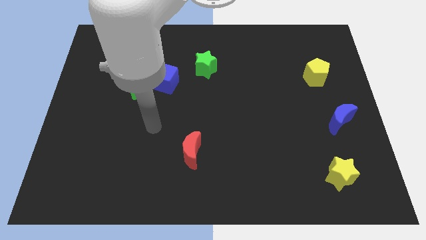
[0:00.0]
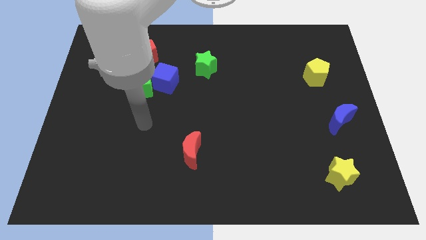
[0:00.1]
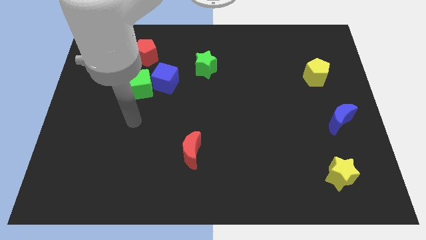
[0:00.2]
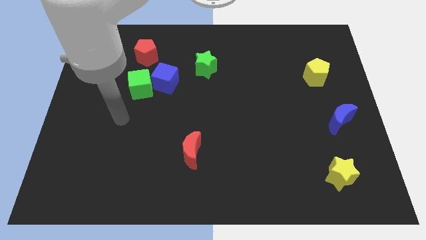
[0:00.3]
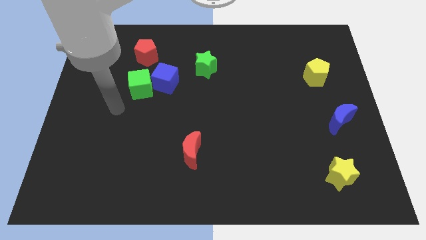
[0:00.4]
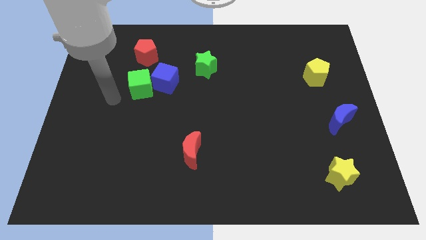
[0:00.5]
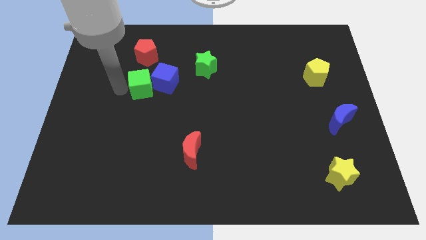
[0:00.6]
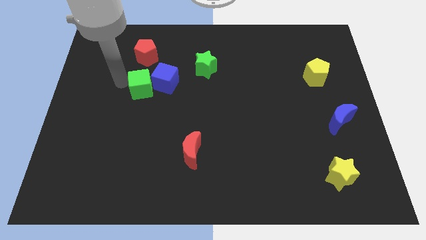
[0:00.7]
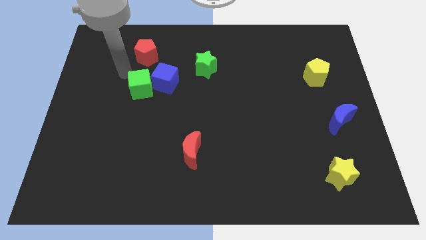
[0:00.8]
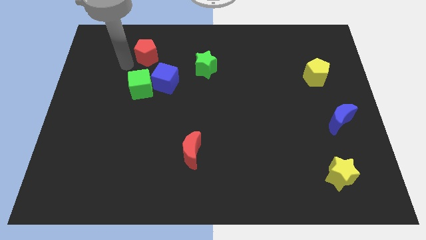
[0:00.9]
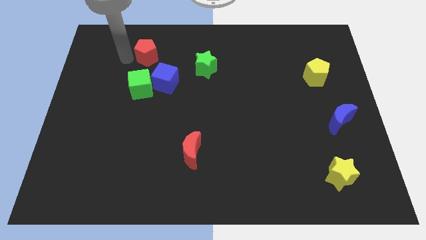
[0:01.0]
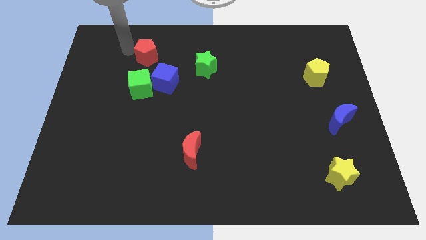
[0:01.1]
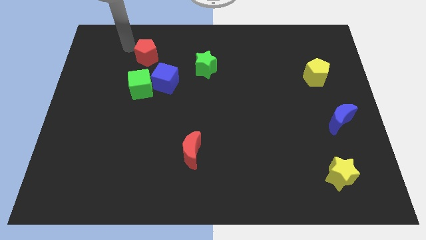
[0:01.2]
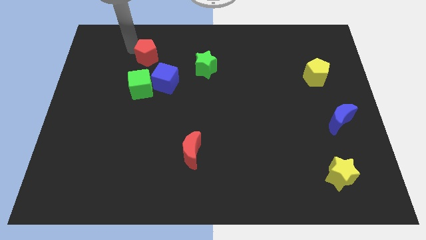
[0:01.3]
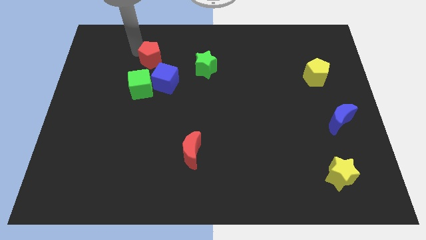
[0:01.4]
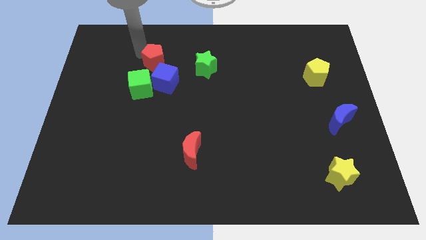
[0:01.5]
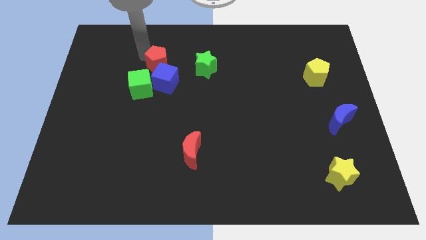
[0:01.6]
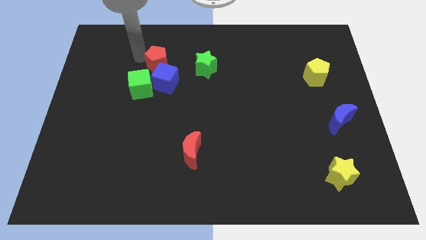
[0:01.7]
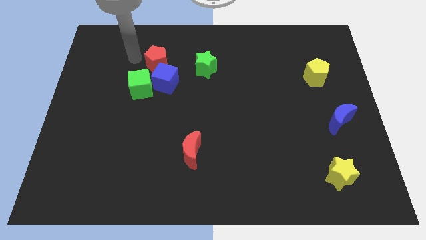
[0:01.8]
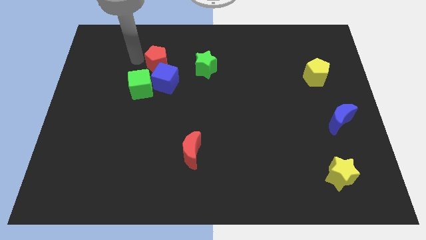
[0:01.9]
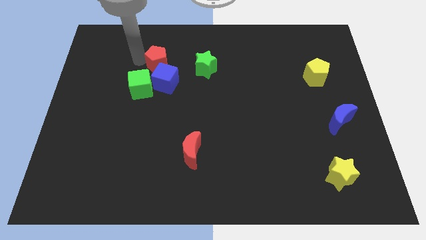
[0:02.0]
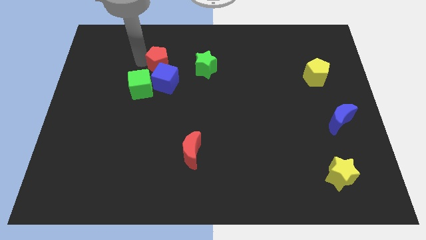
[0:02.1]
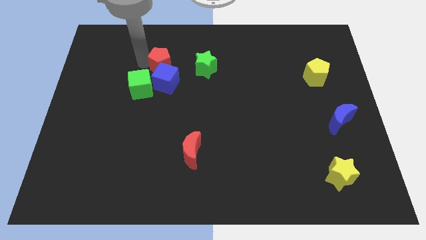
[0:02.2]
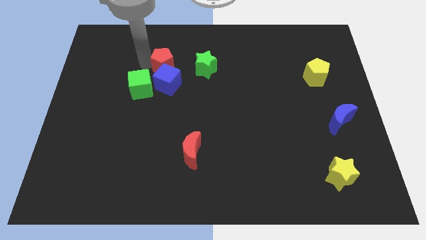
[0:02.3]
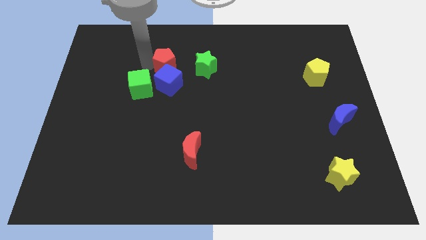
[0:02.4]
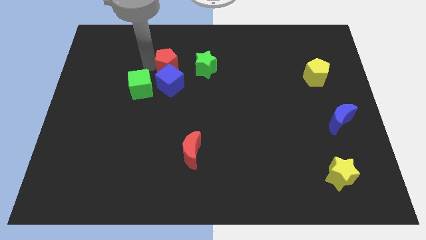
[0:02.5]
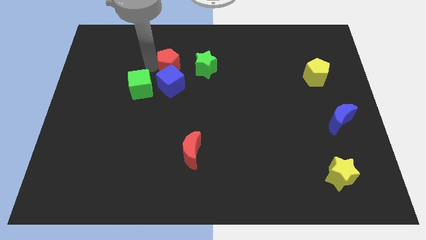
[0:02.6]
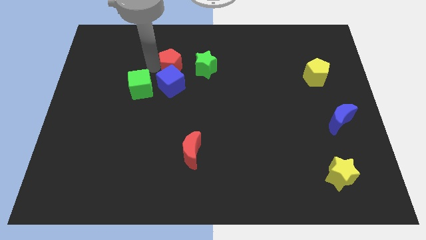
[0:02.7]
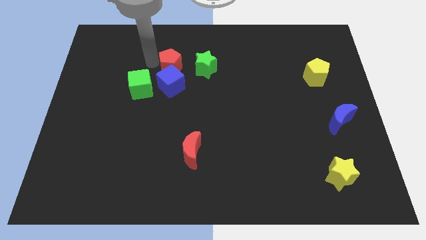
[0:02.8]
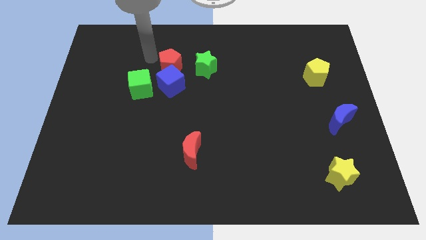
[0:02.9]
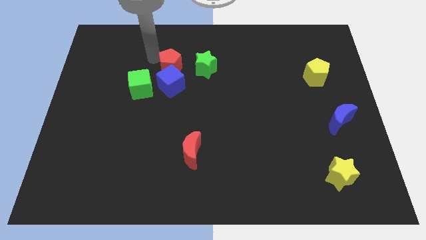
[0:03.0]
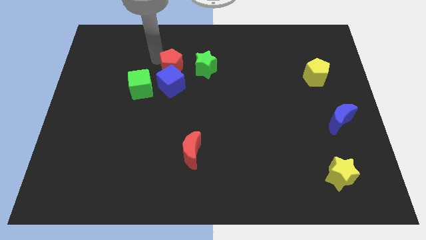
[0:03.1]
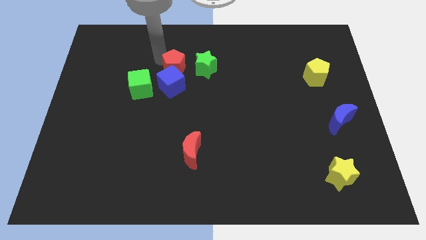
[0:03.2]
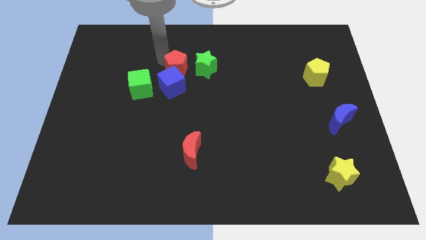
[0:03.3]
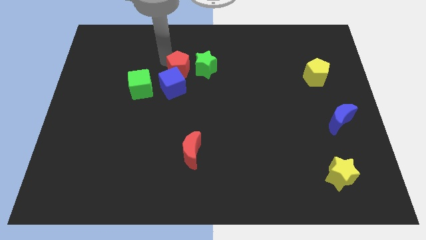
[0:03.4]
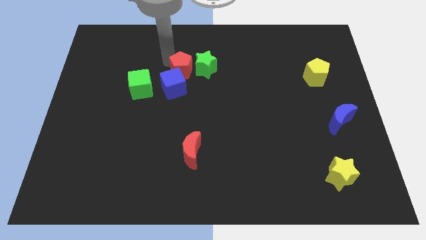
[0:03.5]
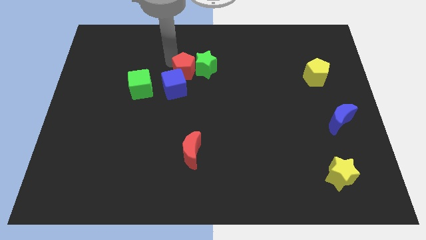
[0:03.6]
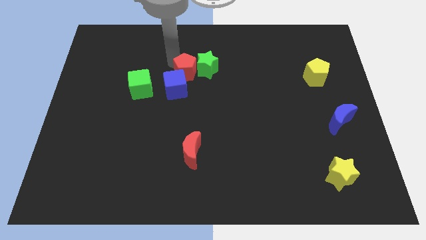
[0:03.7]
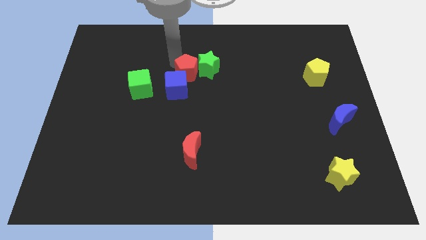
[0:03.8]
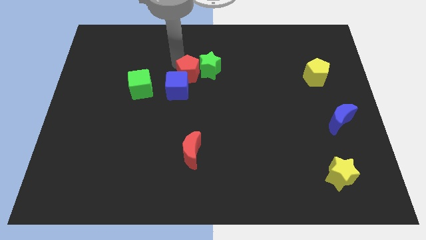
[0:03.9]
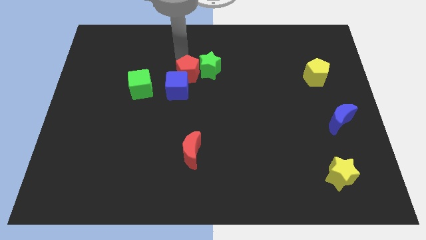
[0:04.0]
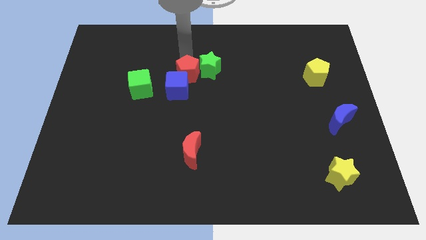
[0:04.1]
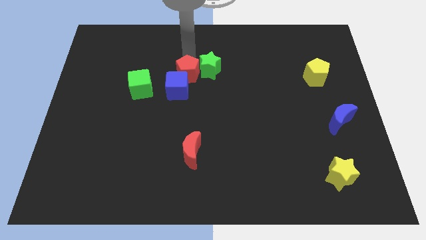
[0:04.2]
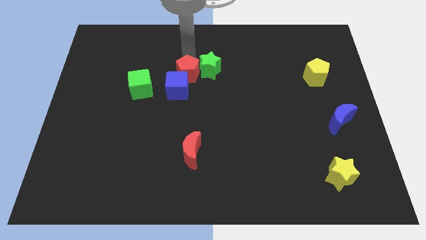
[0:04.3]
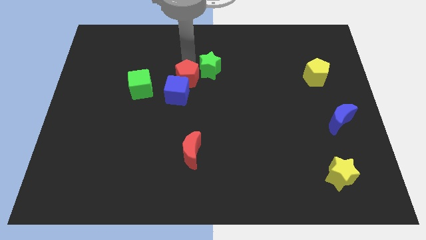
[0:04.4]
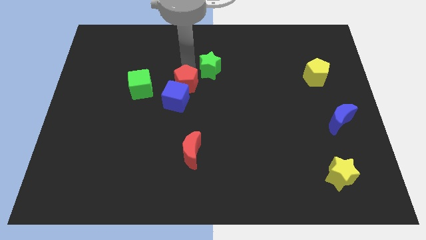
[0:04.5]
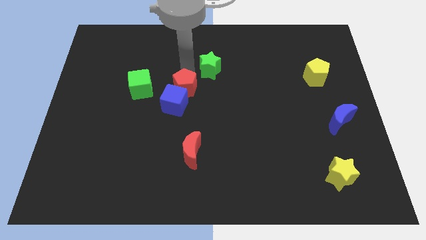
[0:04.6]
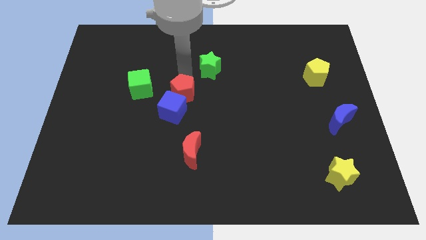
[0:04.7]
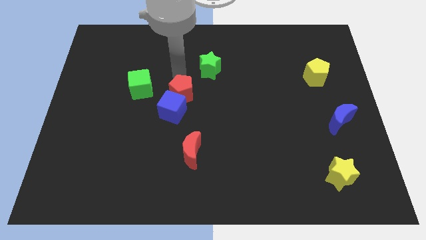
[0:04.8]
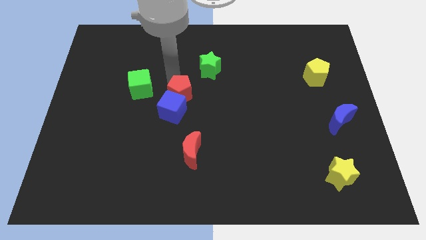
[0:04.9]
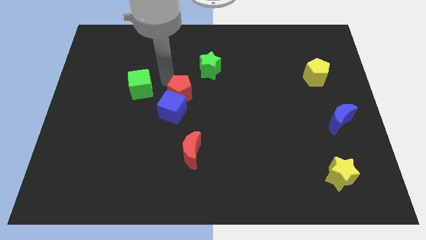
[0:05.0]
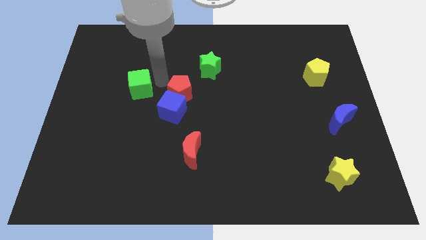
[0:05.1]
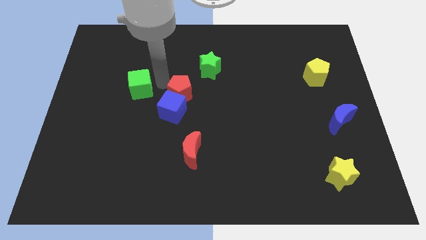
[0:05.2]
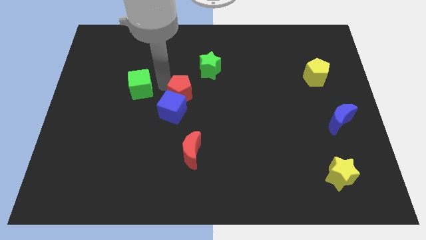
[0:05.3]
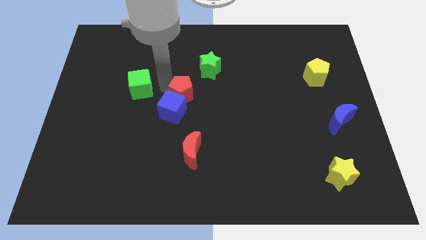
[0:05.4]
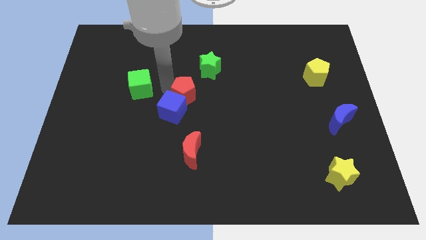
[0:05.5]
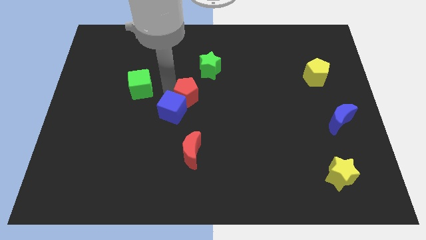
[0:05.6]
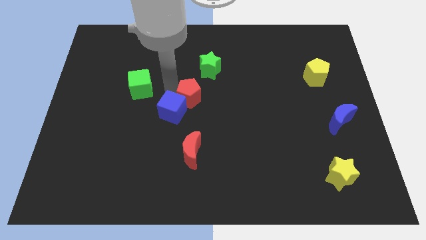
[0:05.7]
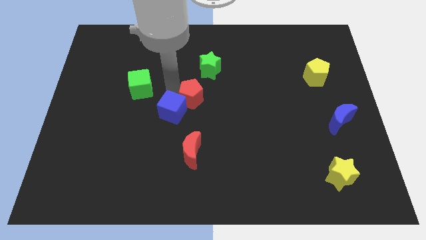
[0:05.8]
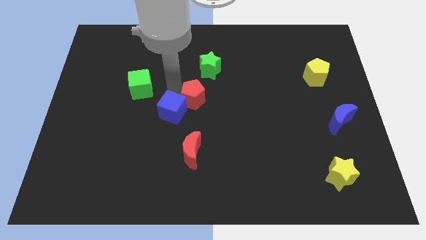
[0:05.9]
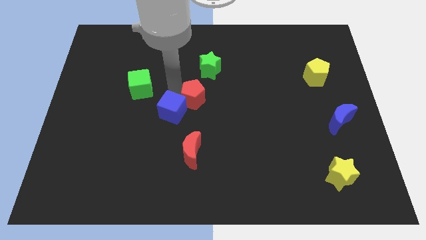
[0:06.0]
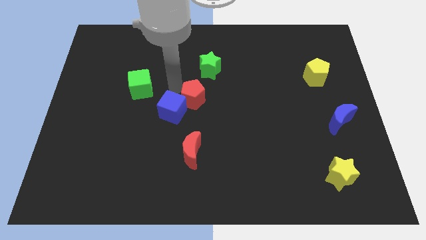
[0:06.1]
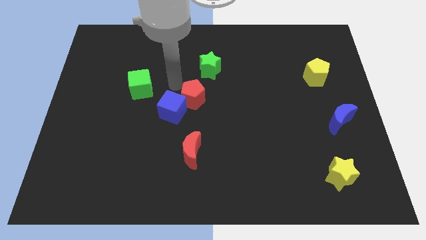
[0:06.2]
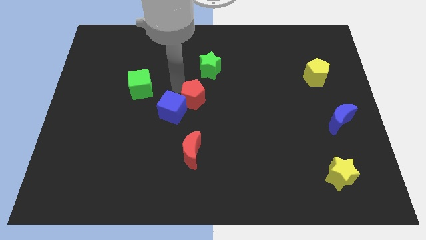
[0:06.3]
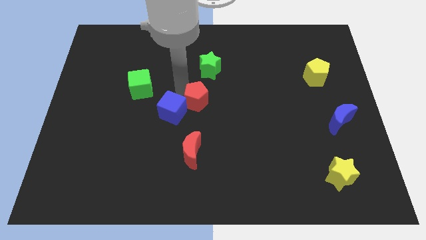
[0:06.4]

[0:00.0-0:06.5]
push the red pentagon downwards and then right

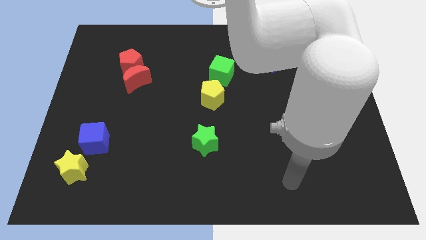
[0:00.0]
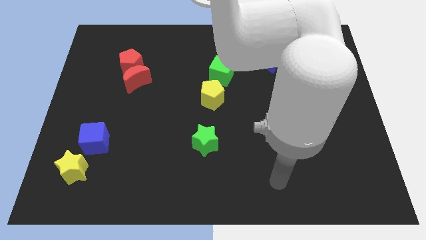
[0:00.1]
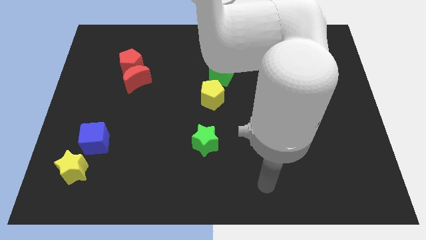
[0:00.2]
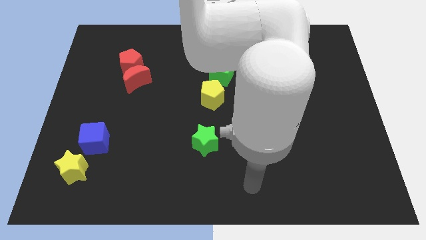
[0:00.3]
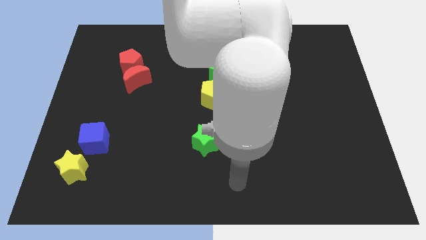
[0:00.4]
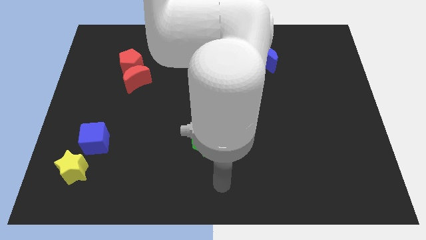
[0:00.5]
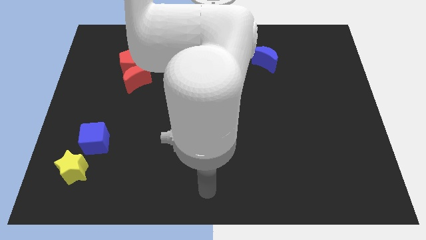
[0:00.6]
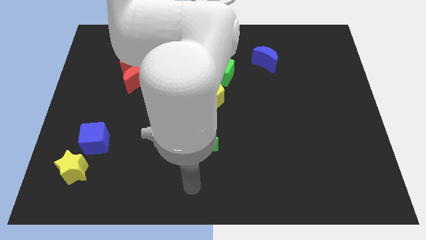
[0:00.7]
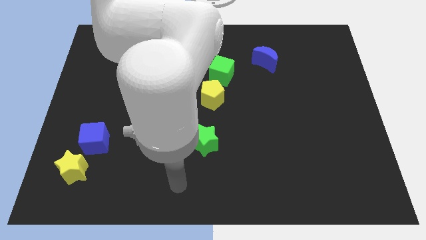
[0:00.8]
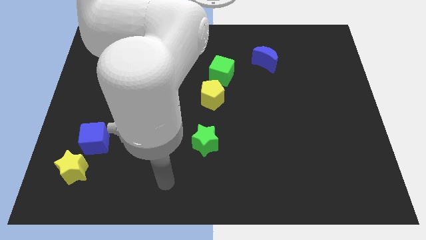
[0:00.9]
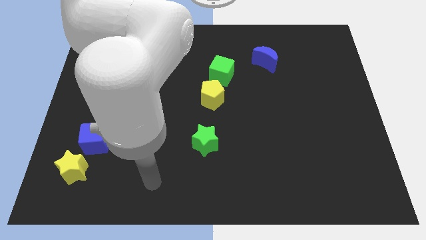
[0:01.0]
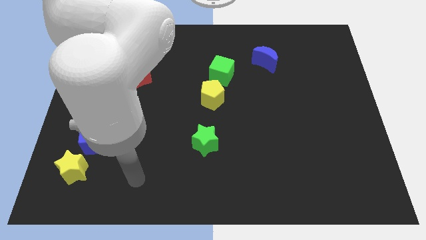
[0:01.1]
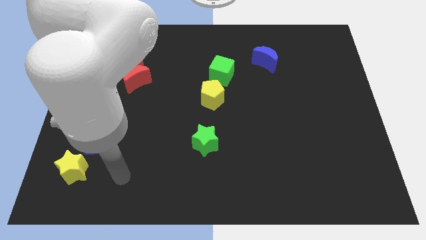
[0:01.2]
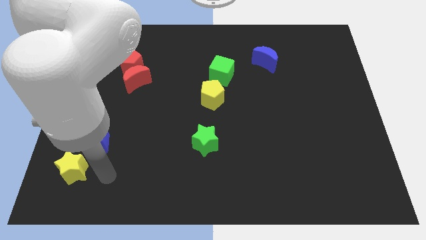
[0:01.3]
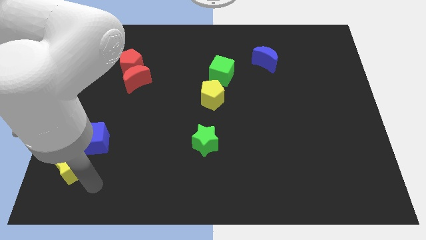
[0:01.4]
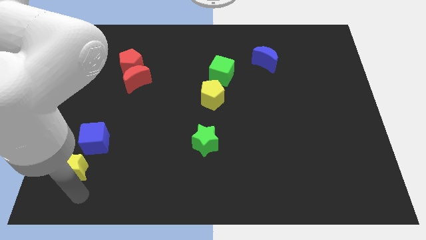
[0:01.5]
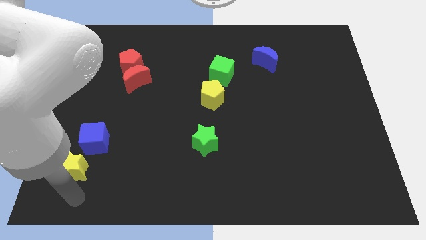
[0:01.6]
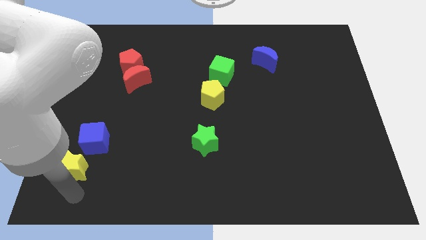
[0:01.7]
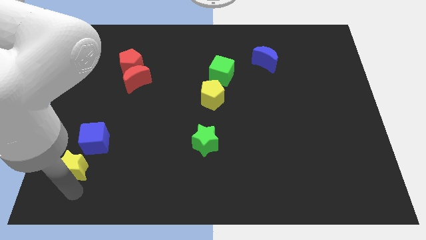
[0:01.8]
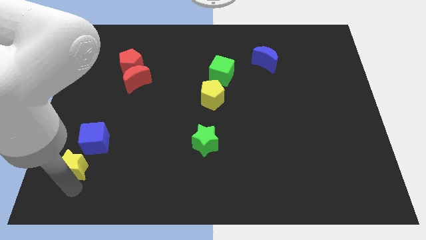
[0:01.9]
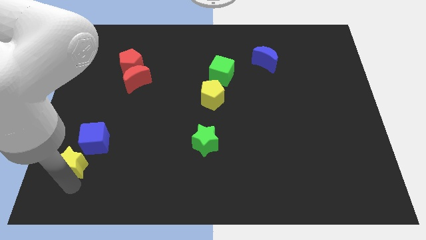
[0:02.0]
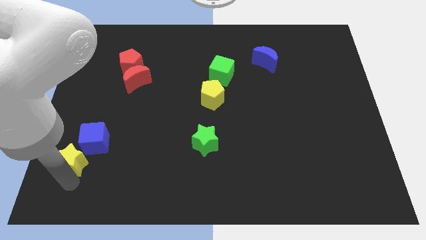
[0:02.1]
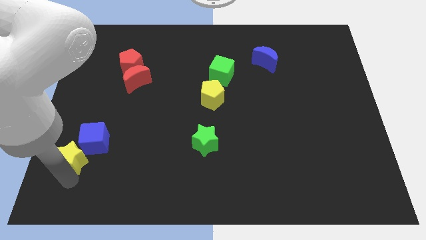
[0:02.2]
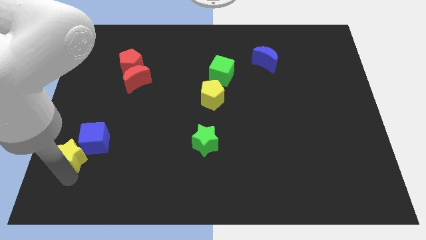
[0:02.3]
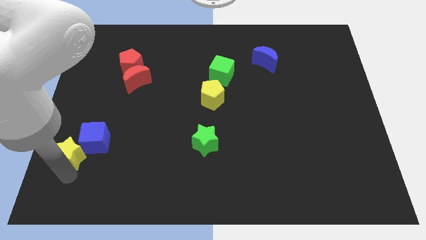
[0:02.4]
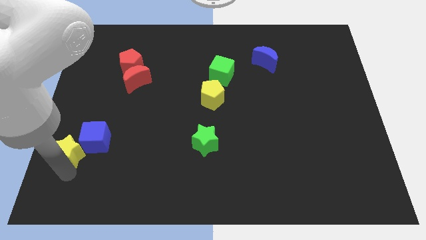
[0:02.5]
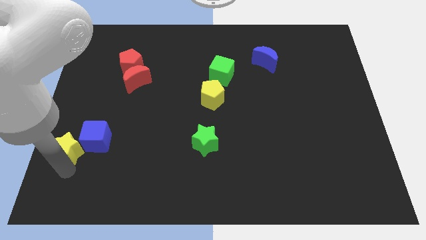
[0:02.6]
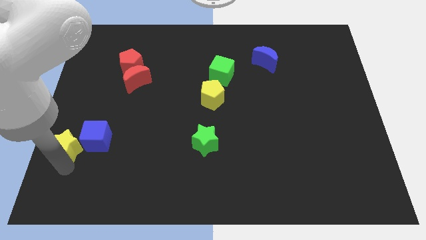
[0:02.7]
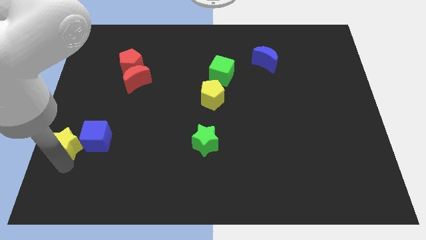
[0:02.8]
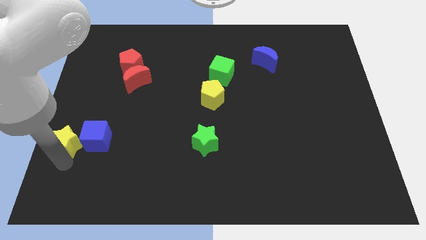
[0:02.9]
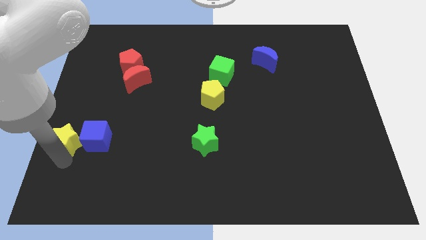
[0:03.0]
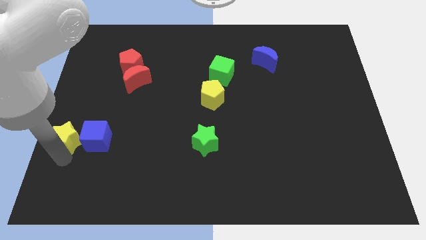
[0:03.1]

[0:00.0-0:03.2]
slightly push the yellow star up
